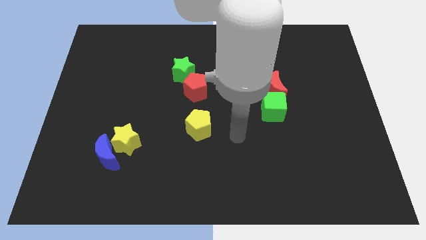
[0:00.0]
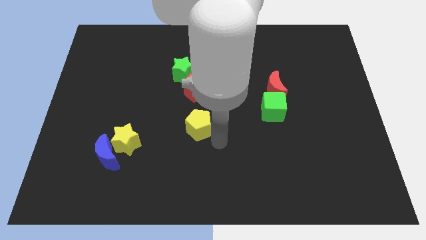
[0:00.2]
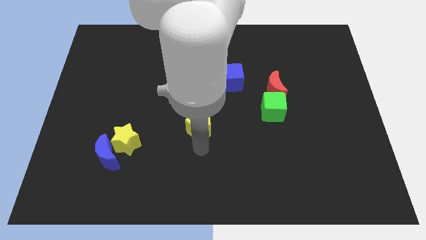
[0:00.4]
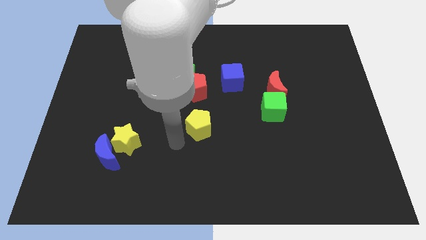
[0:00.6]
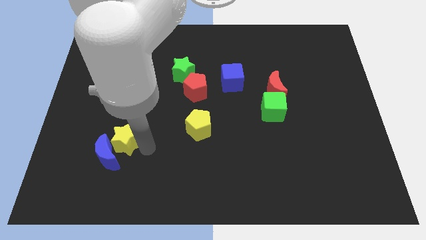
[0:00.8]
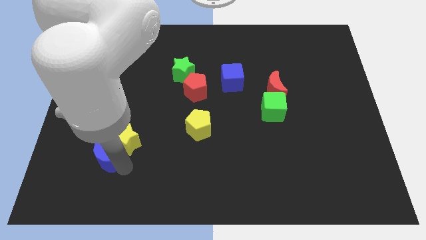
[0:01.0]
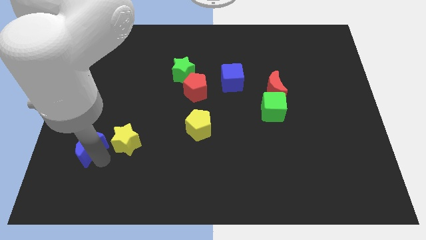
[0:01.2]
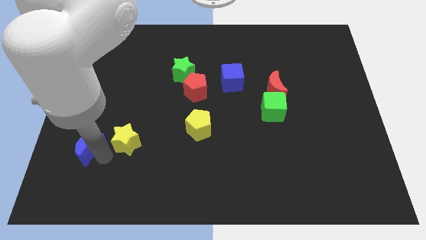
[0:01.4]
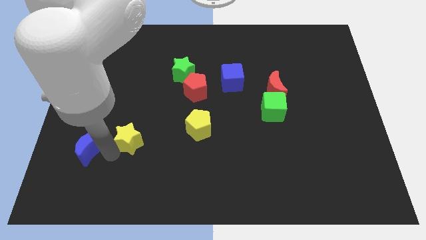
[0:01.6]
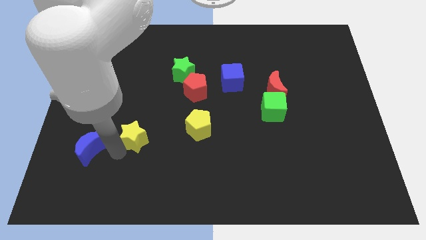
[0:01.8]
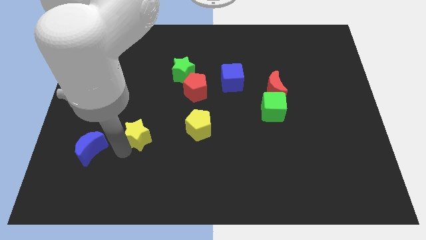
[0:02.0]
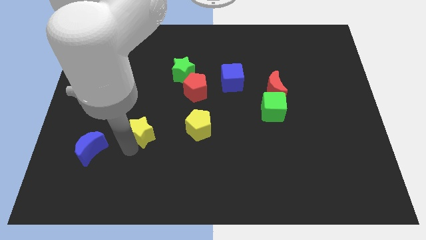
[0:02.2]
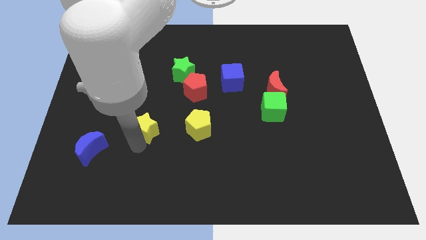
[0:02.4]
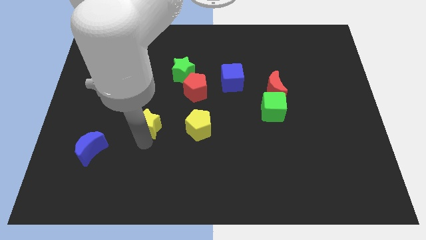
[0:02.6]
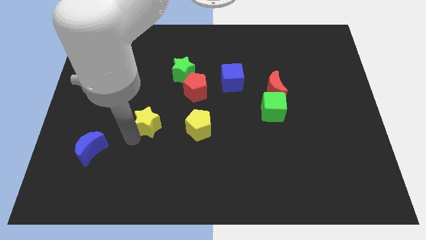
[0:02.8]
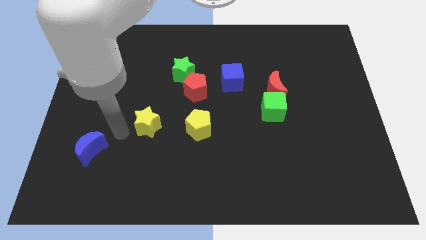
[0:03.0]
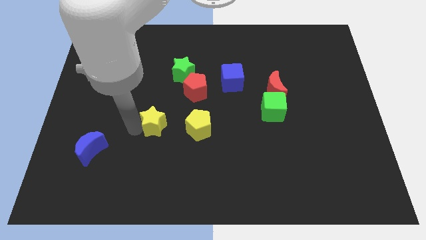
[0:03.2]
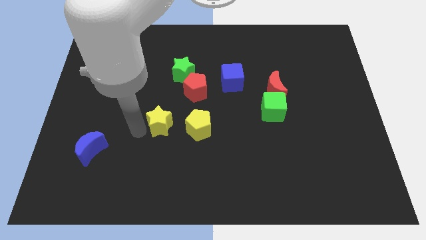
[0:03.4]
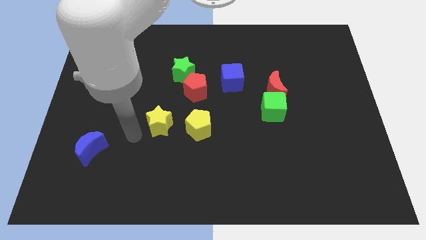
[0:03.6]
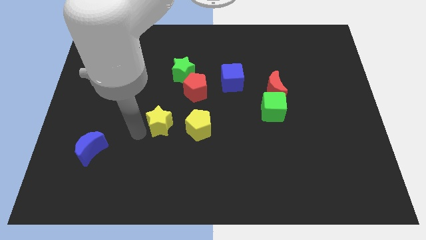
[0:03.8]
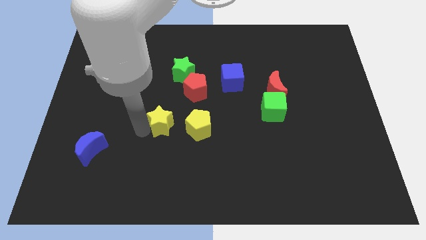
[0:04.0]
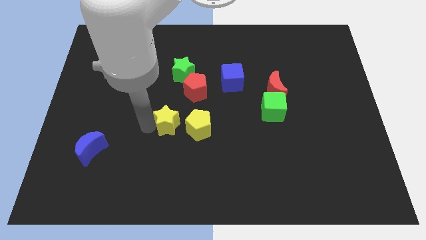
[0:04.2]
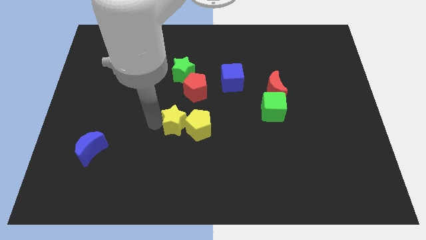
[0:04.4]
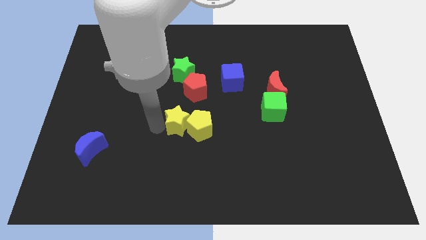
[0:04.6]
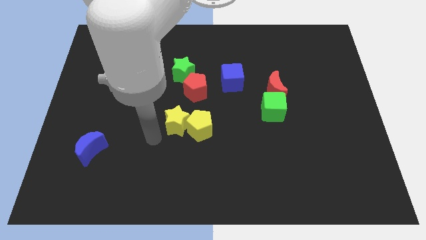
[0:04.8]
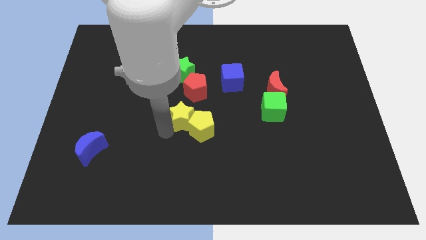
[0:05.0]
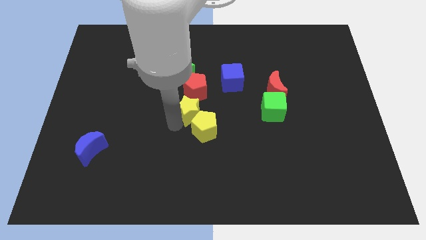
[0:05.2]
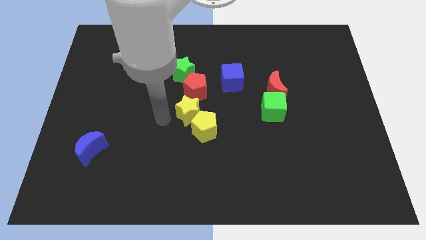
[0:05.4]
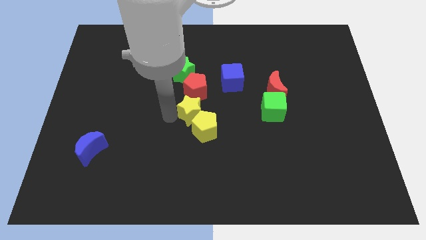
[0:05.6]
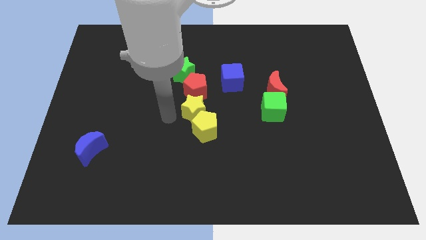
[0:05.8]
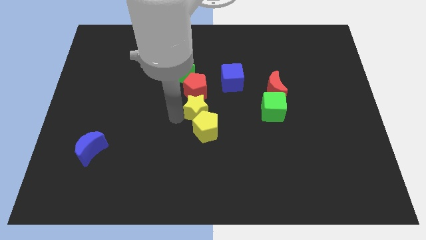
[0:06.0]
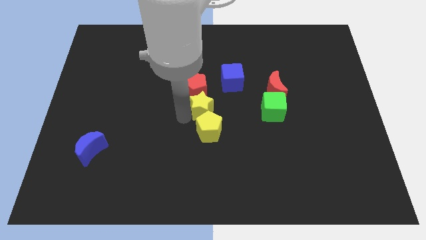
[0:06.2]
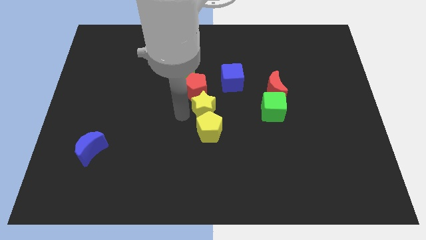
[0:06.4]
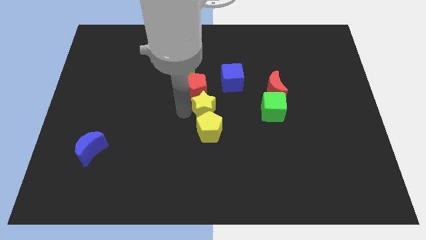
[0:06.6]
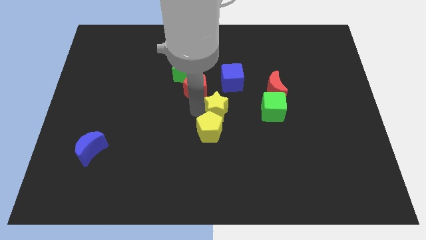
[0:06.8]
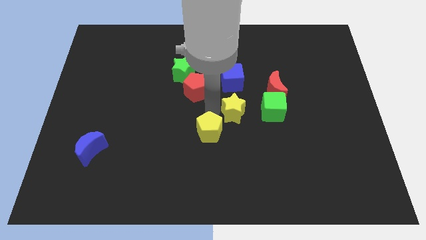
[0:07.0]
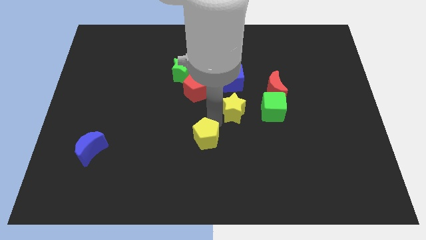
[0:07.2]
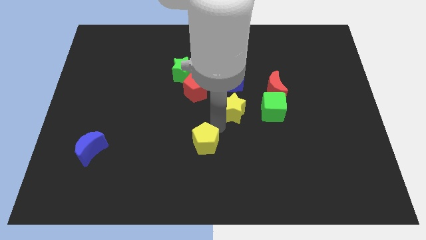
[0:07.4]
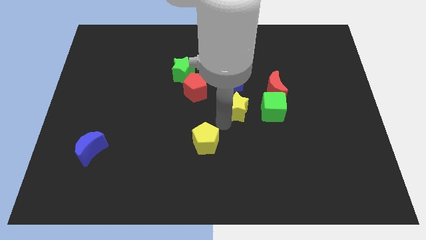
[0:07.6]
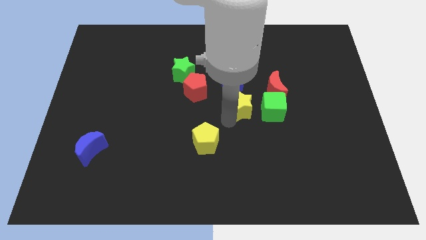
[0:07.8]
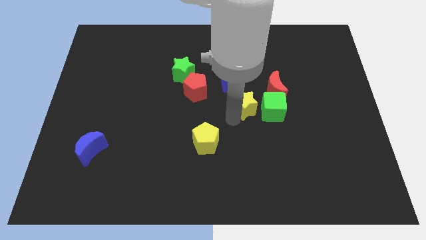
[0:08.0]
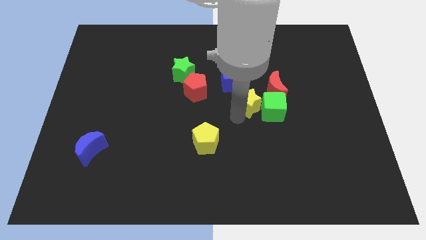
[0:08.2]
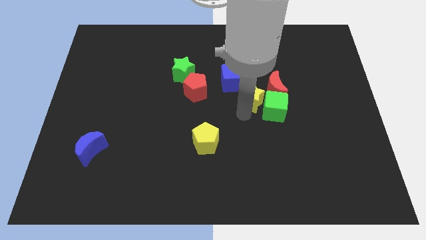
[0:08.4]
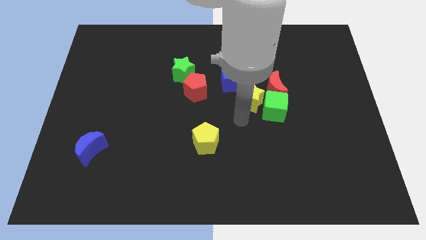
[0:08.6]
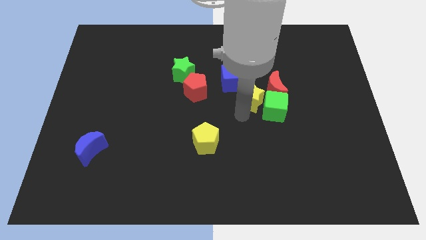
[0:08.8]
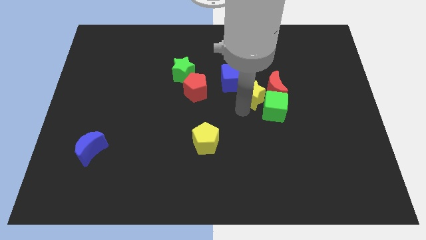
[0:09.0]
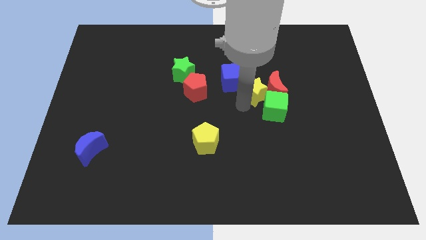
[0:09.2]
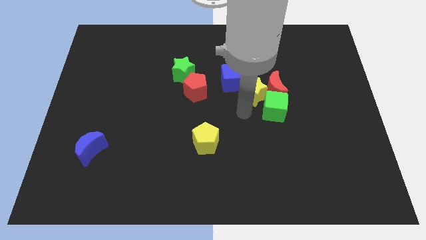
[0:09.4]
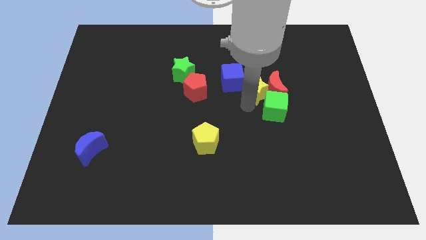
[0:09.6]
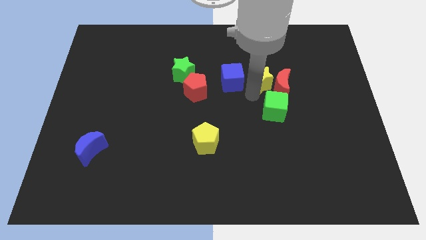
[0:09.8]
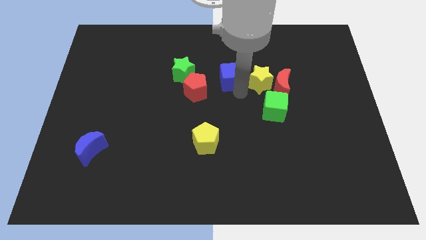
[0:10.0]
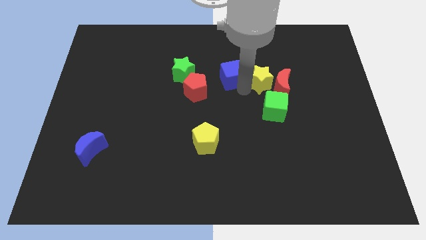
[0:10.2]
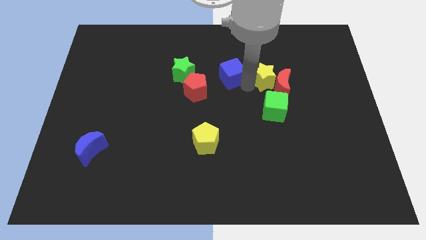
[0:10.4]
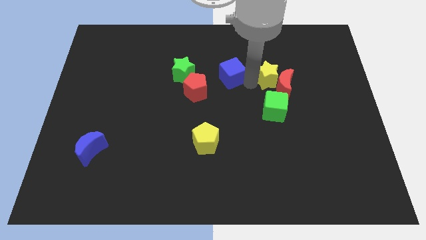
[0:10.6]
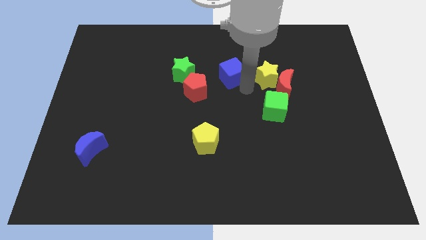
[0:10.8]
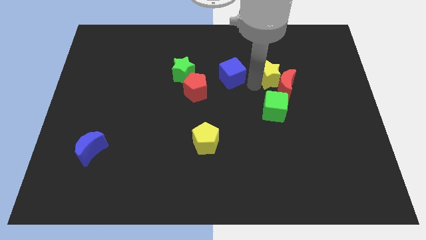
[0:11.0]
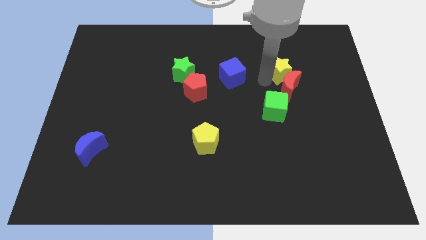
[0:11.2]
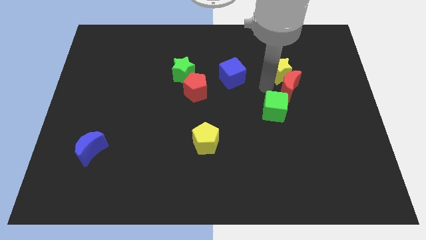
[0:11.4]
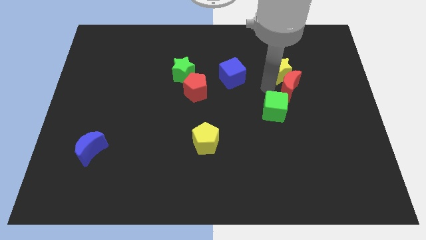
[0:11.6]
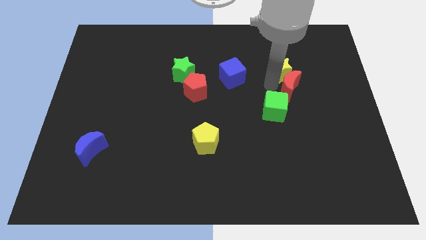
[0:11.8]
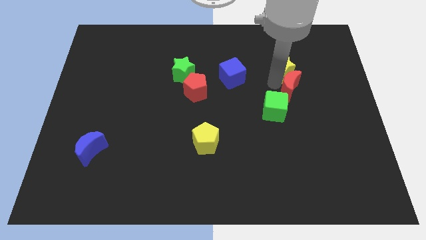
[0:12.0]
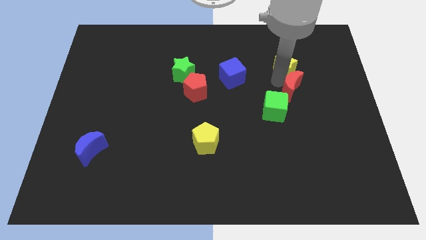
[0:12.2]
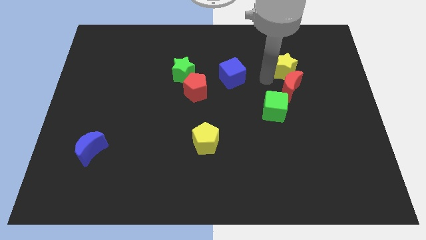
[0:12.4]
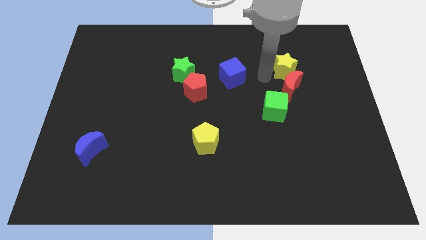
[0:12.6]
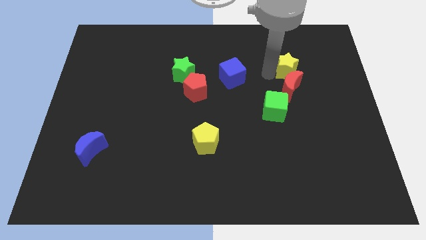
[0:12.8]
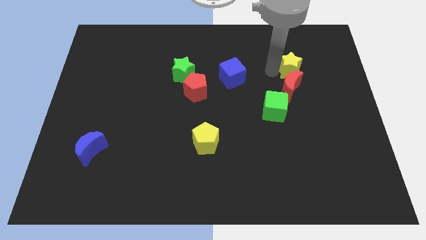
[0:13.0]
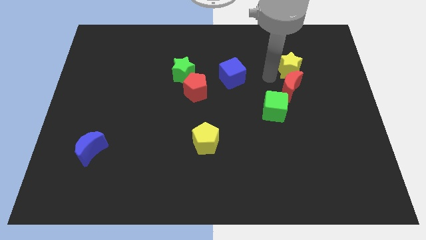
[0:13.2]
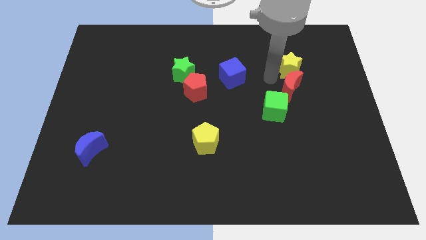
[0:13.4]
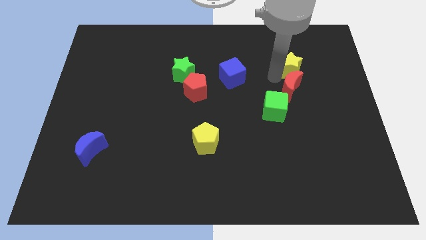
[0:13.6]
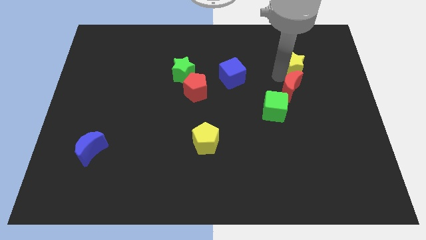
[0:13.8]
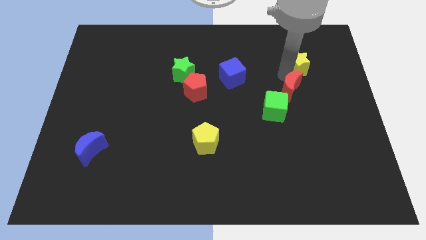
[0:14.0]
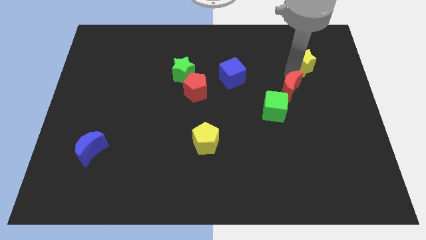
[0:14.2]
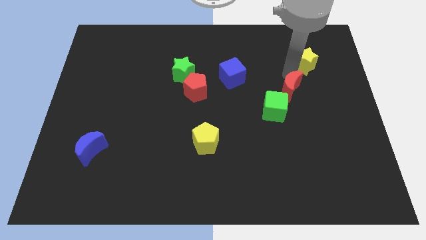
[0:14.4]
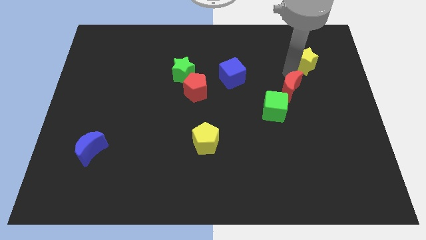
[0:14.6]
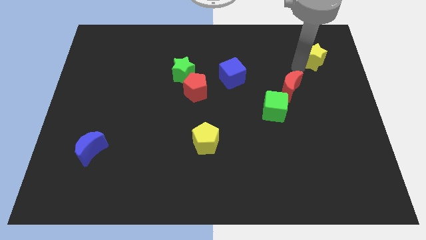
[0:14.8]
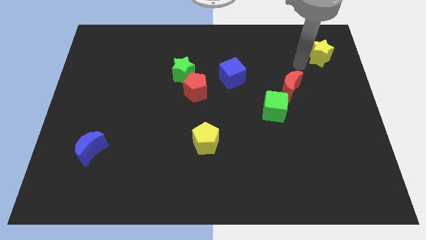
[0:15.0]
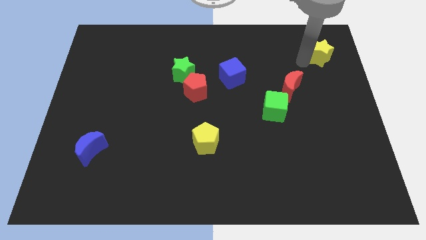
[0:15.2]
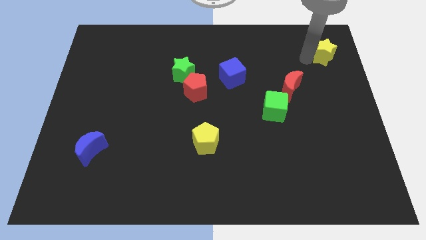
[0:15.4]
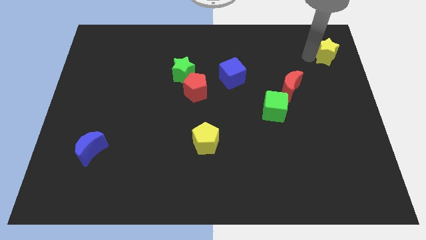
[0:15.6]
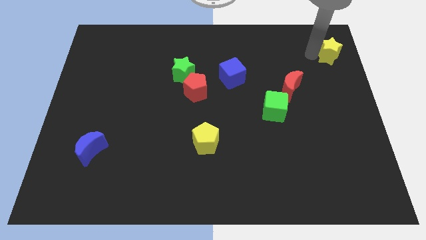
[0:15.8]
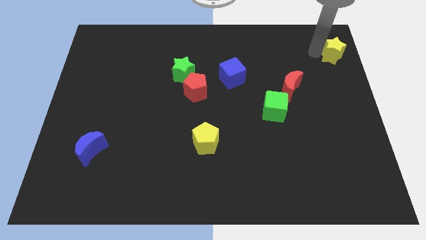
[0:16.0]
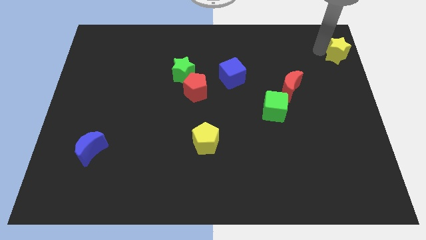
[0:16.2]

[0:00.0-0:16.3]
put the yellow star to the top right corner
